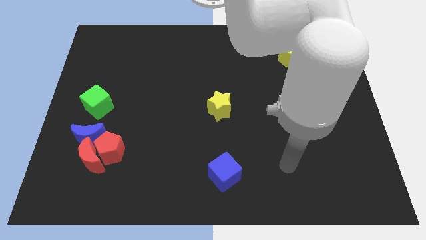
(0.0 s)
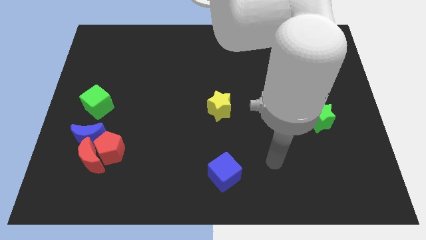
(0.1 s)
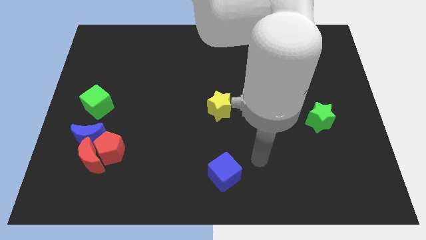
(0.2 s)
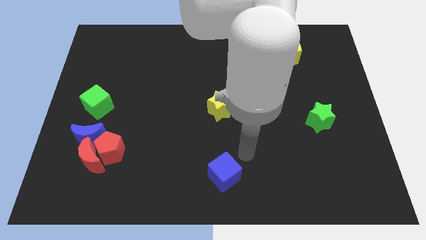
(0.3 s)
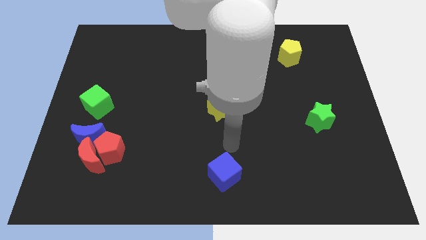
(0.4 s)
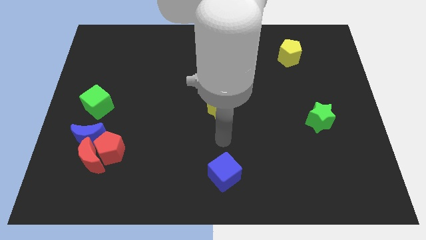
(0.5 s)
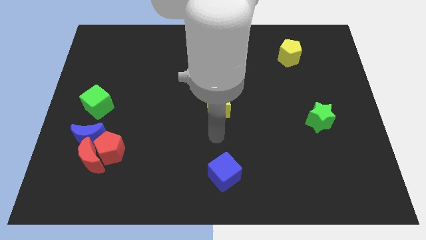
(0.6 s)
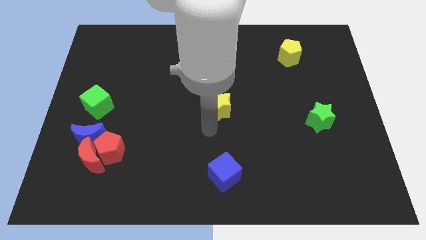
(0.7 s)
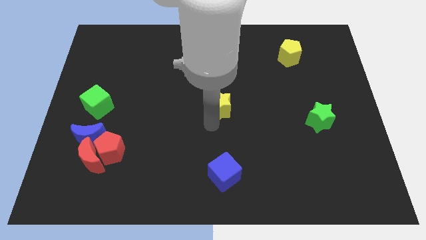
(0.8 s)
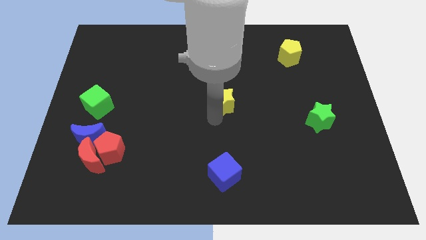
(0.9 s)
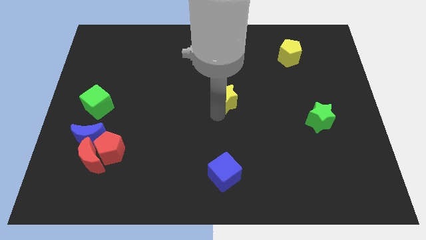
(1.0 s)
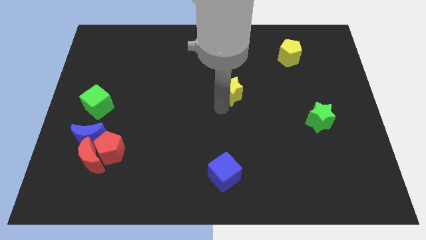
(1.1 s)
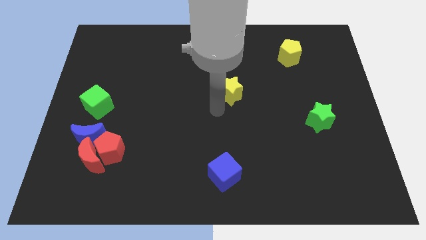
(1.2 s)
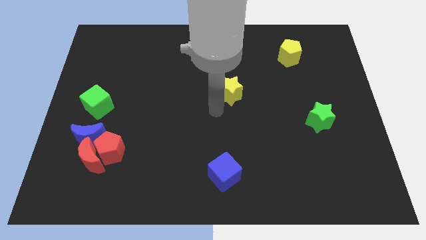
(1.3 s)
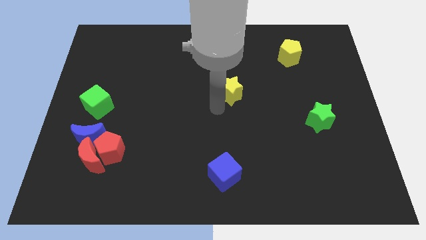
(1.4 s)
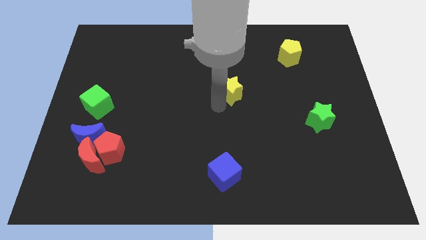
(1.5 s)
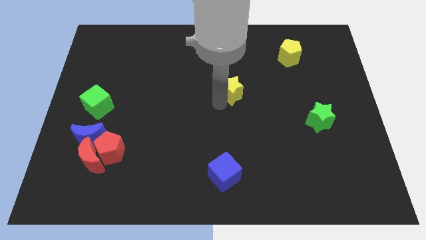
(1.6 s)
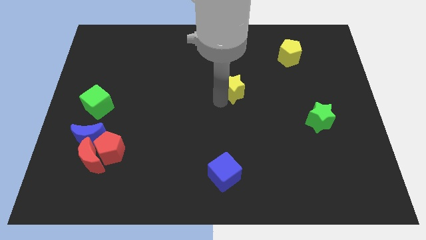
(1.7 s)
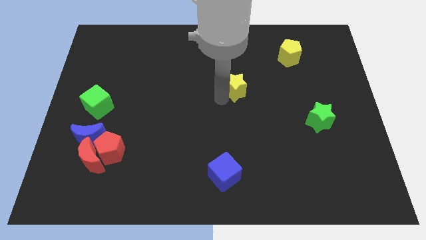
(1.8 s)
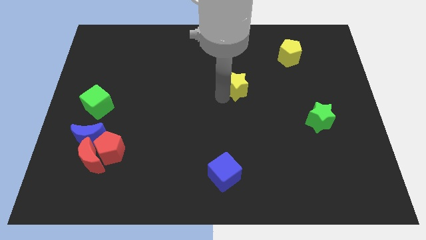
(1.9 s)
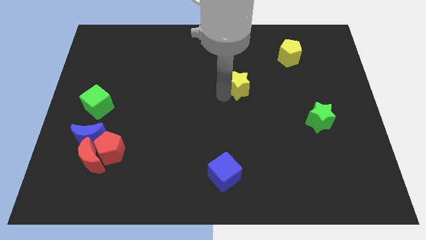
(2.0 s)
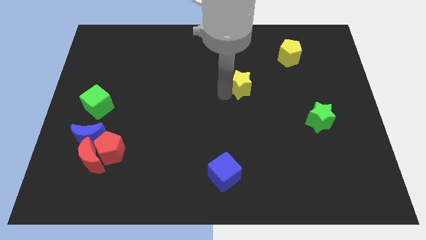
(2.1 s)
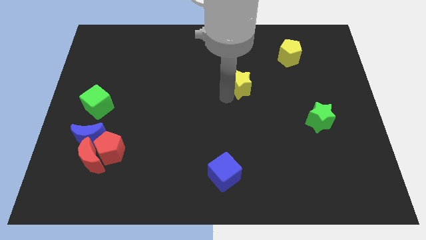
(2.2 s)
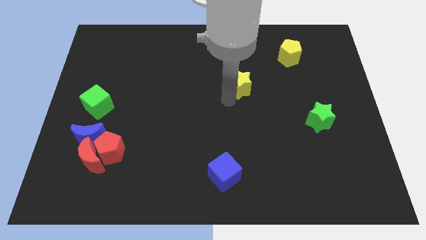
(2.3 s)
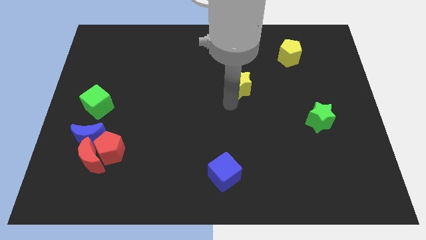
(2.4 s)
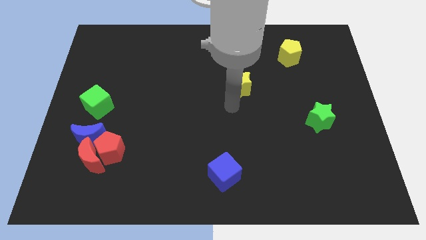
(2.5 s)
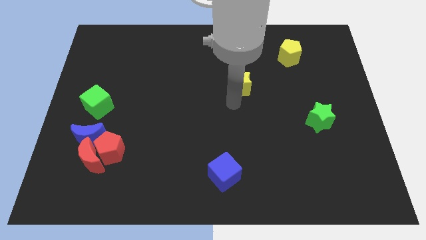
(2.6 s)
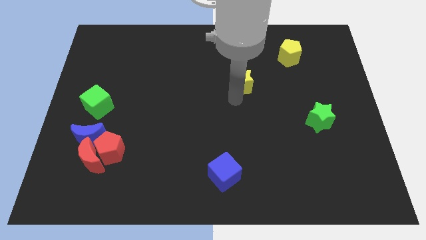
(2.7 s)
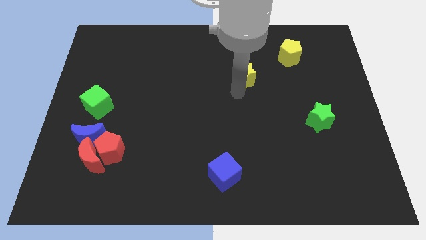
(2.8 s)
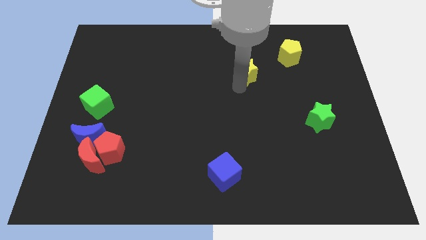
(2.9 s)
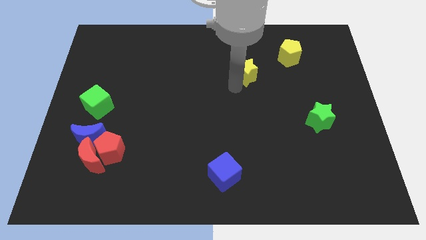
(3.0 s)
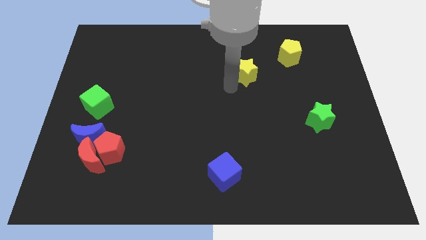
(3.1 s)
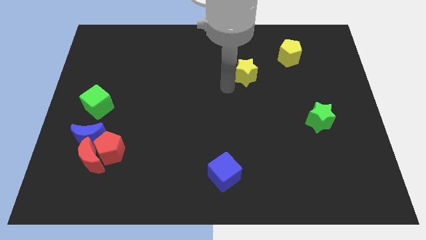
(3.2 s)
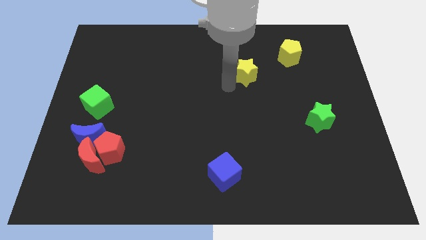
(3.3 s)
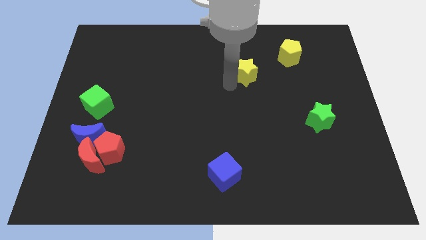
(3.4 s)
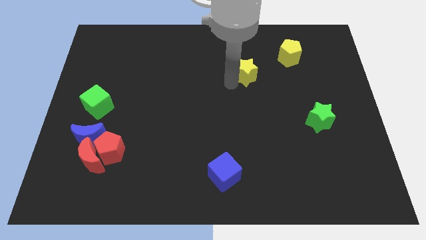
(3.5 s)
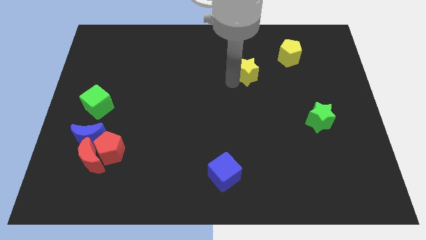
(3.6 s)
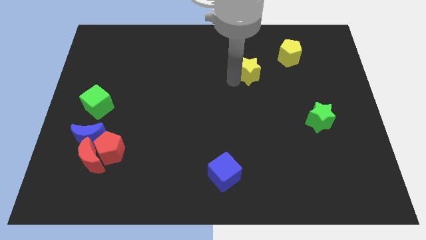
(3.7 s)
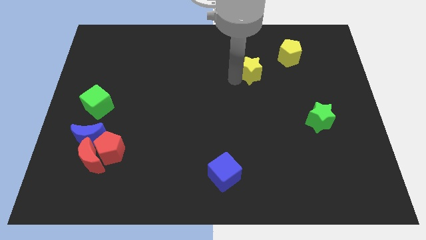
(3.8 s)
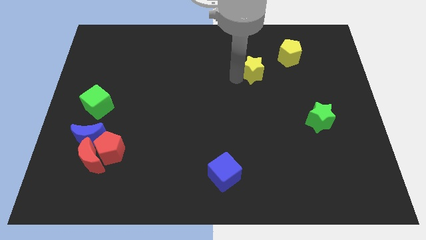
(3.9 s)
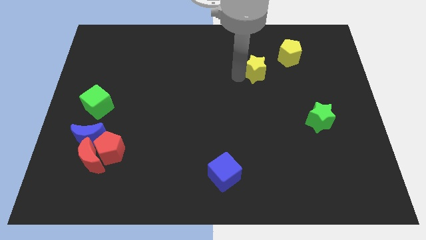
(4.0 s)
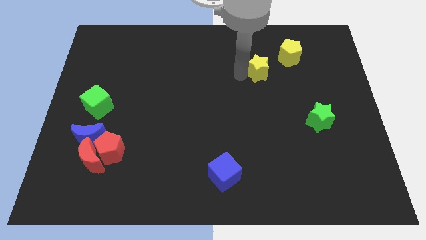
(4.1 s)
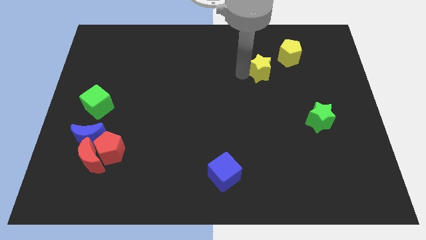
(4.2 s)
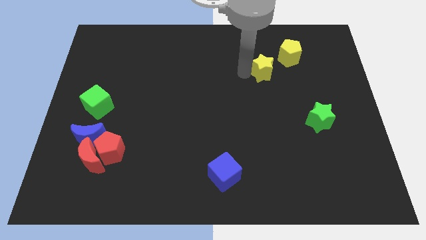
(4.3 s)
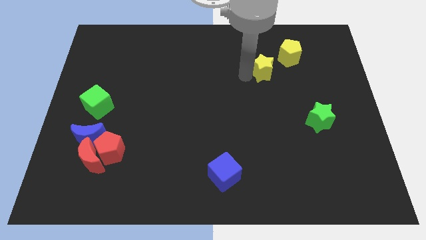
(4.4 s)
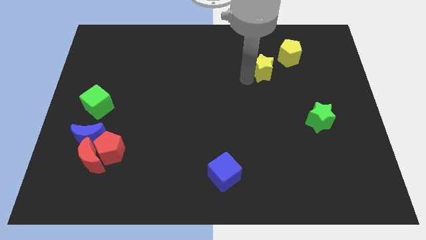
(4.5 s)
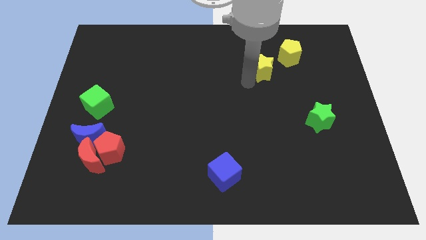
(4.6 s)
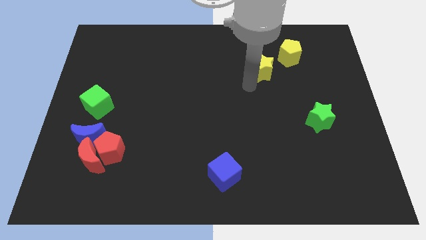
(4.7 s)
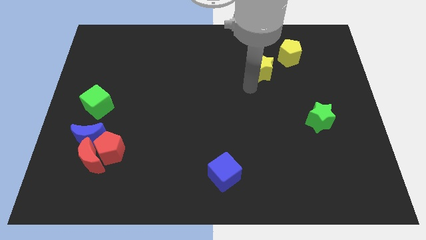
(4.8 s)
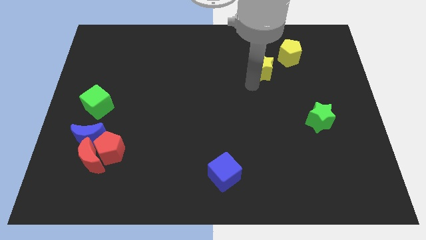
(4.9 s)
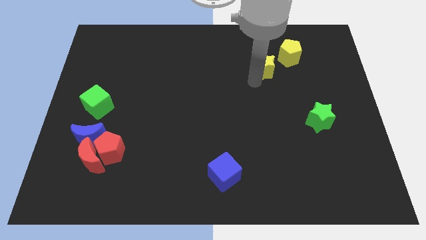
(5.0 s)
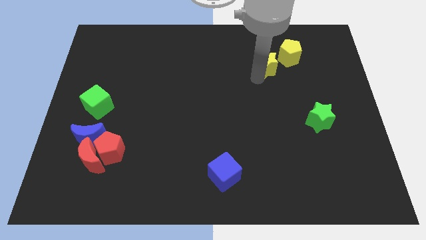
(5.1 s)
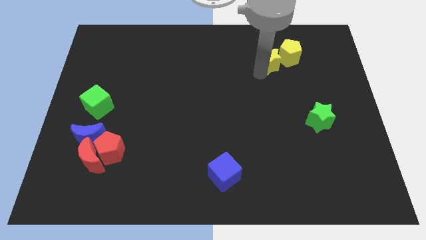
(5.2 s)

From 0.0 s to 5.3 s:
put the yellow star towards the yellow pentagon

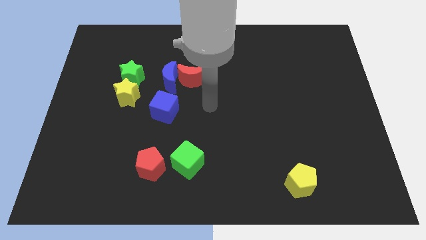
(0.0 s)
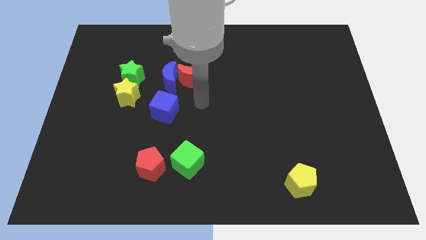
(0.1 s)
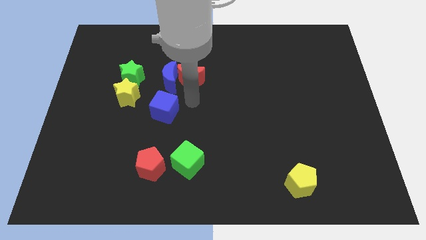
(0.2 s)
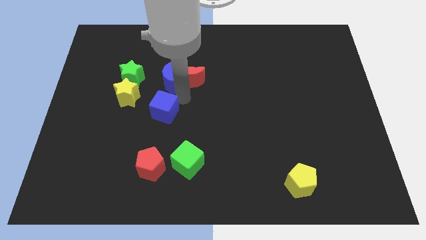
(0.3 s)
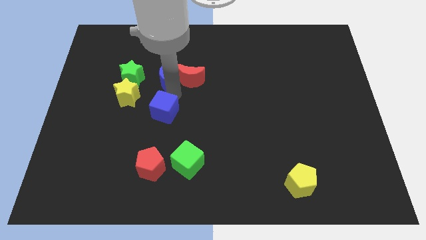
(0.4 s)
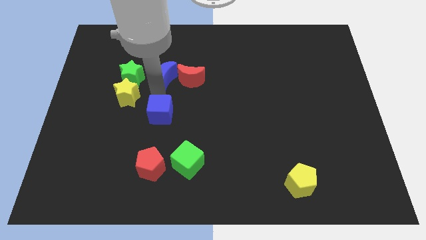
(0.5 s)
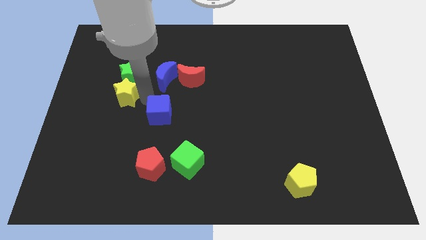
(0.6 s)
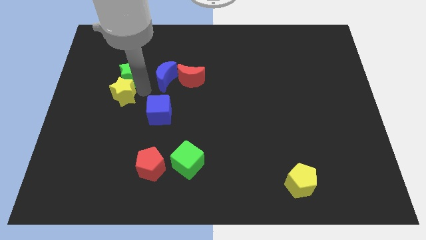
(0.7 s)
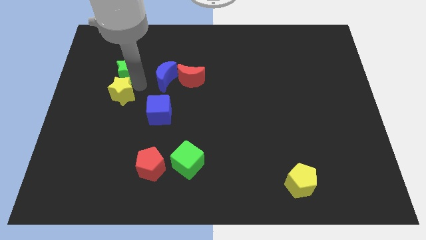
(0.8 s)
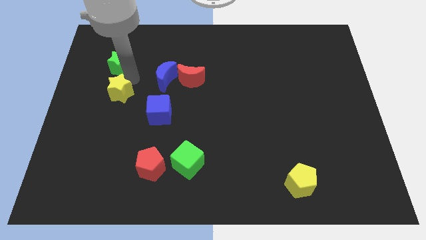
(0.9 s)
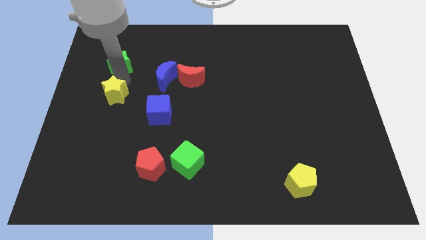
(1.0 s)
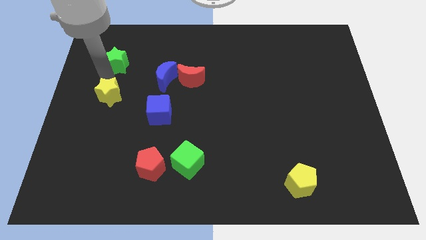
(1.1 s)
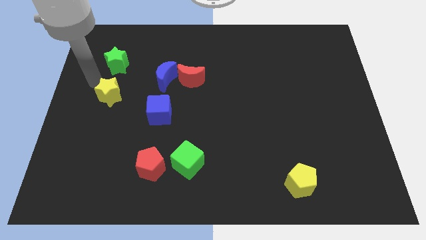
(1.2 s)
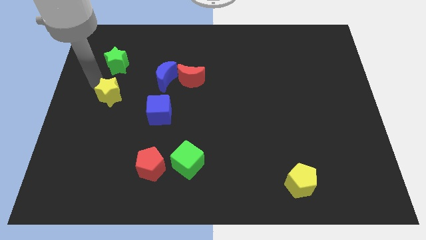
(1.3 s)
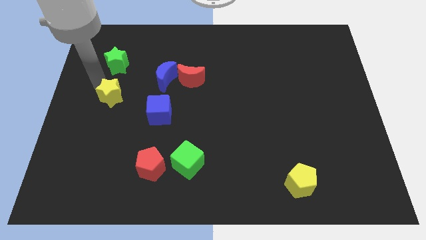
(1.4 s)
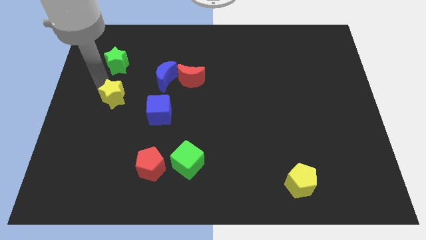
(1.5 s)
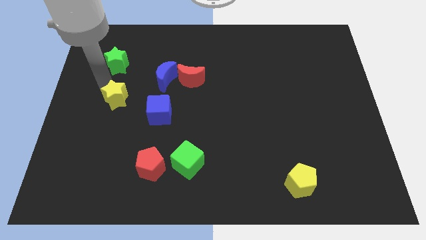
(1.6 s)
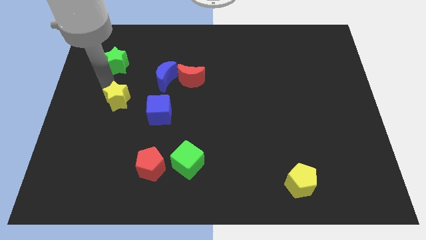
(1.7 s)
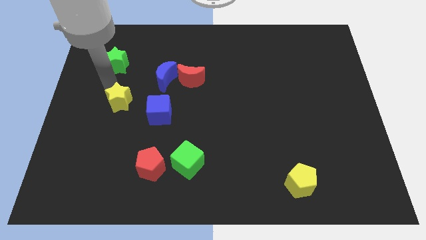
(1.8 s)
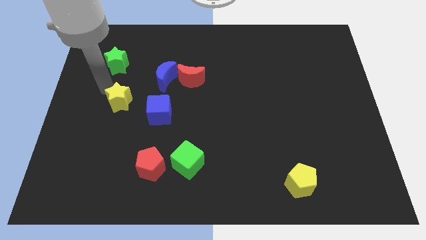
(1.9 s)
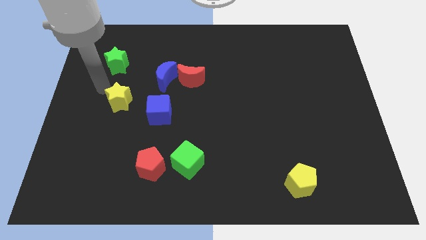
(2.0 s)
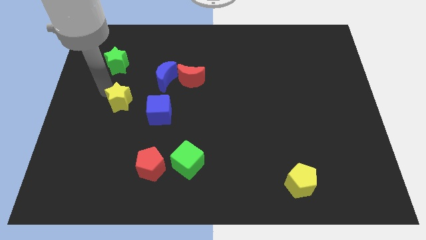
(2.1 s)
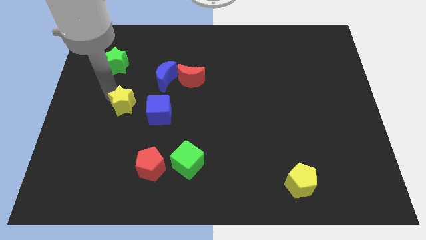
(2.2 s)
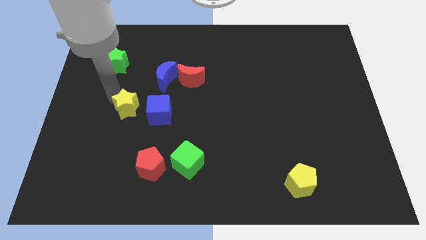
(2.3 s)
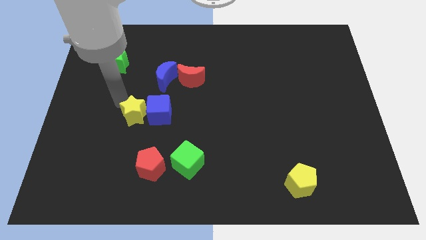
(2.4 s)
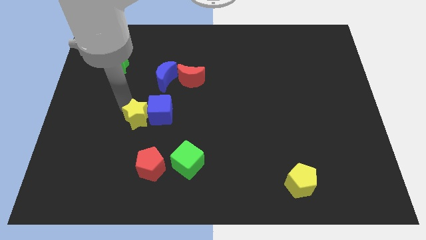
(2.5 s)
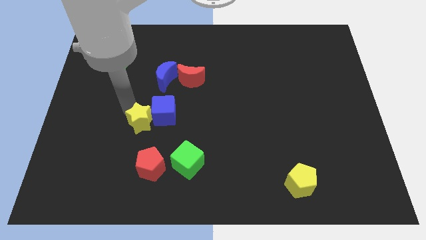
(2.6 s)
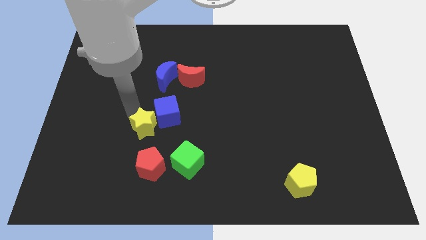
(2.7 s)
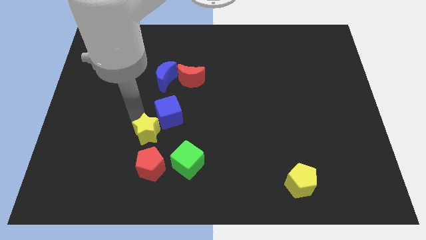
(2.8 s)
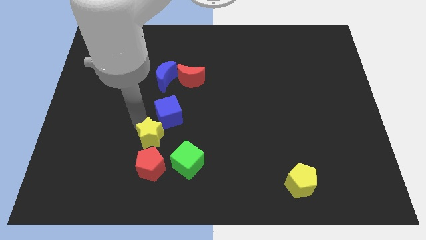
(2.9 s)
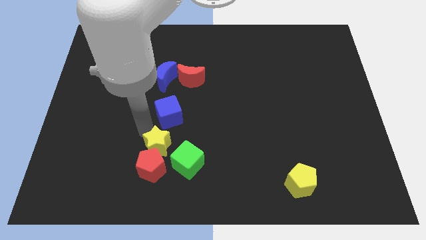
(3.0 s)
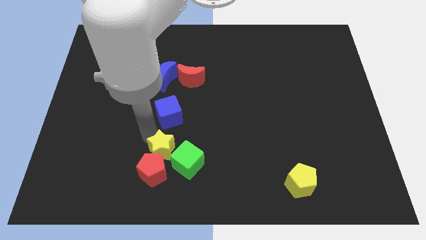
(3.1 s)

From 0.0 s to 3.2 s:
move the yellow star close to the green cube
